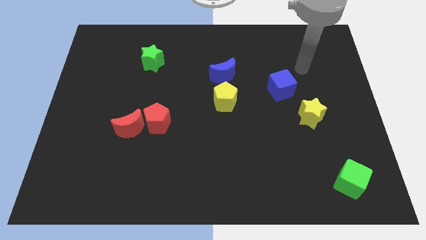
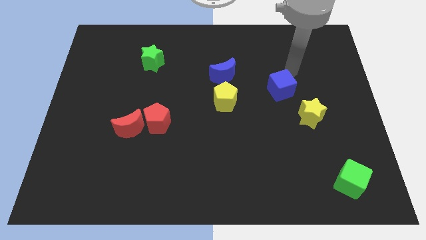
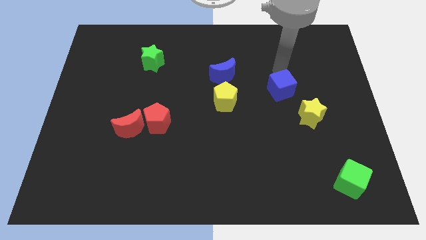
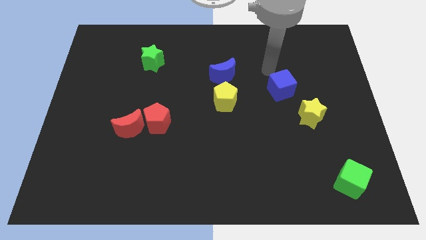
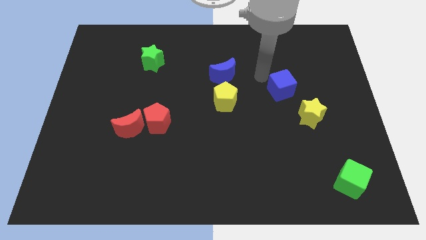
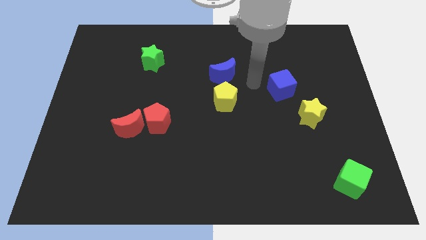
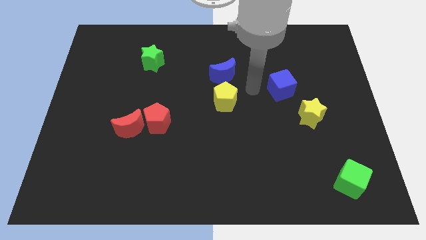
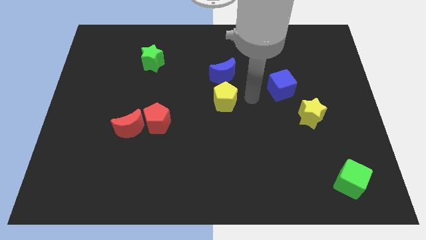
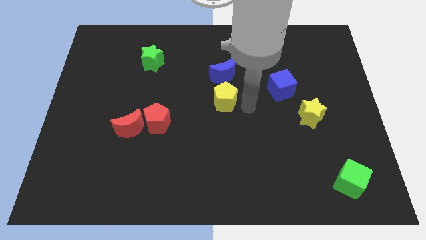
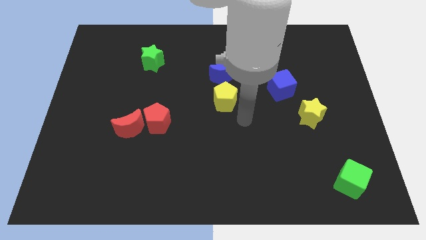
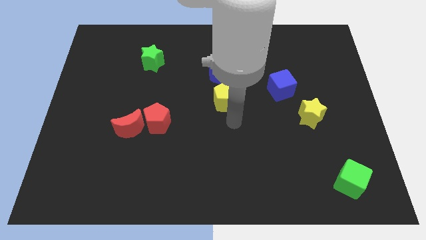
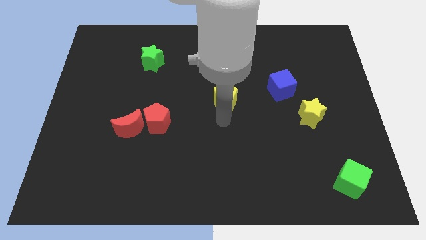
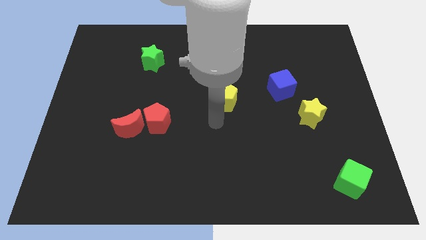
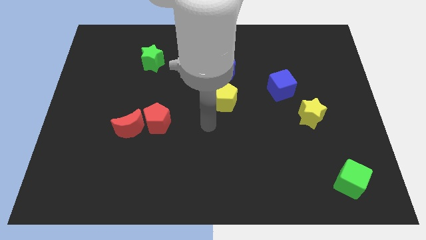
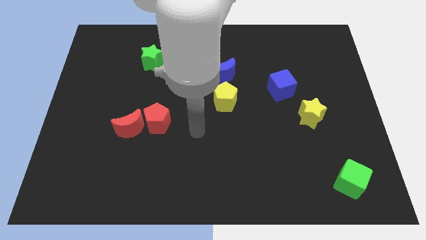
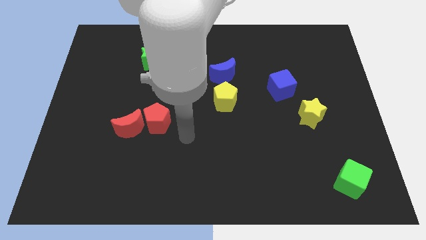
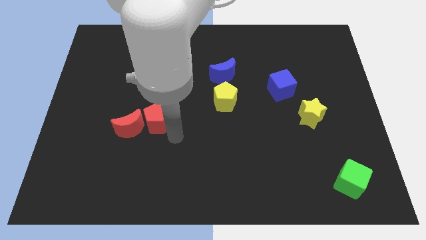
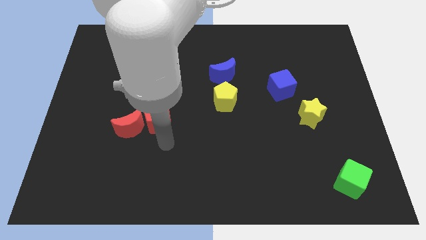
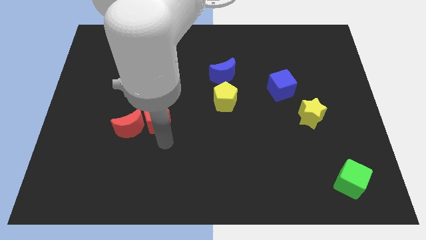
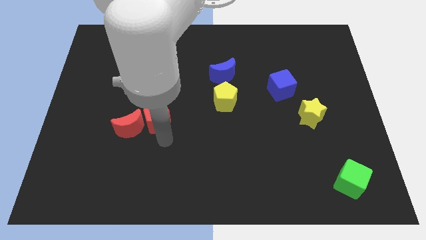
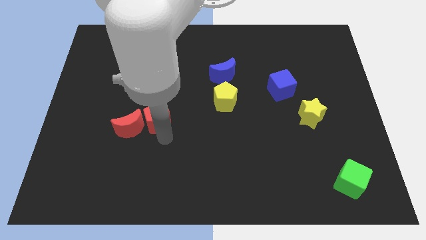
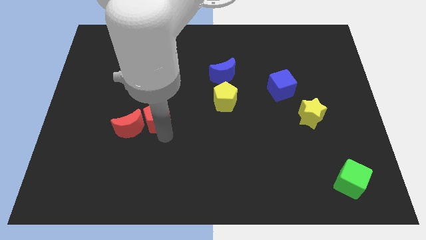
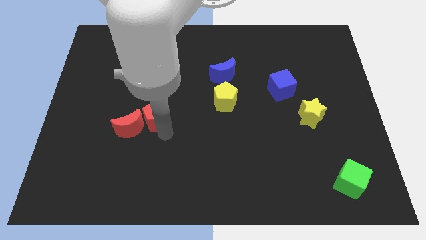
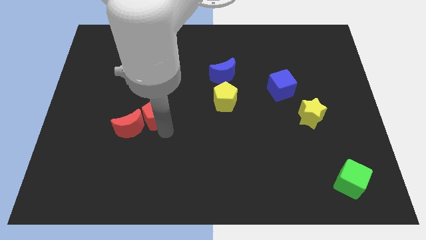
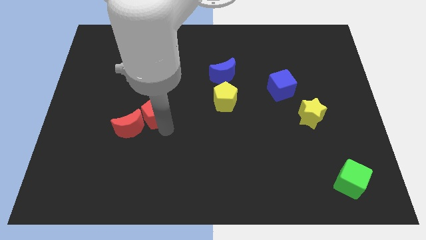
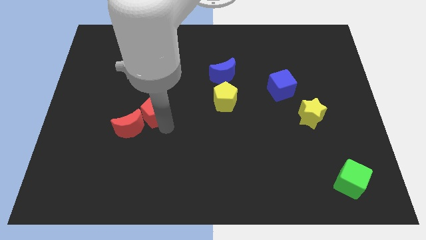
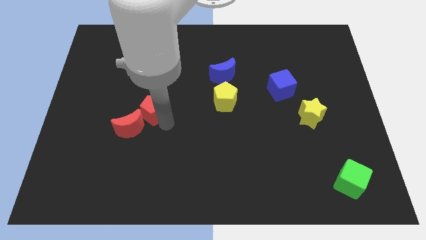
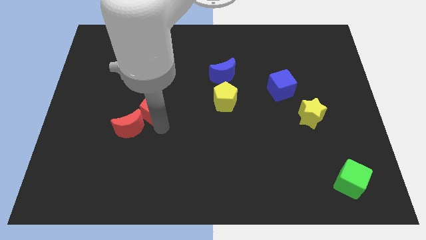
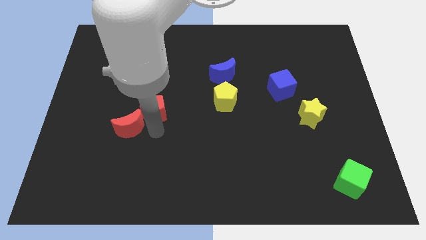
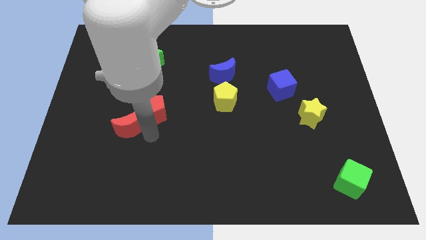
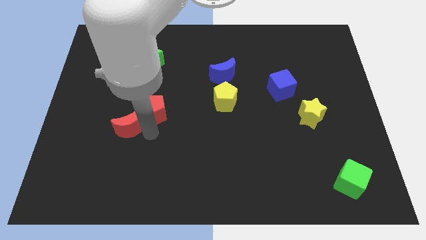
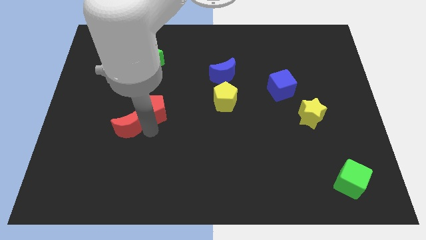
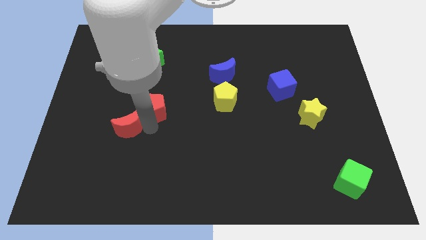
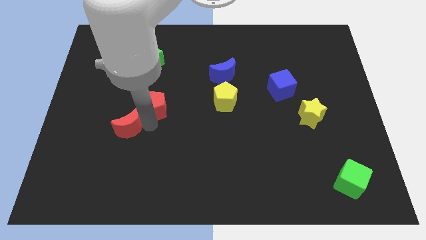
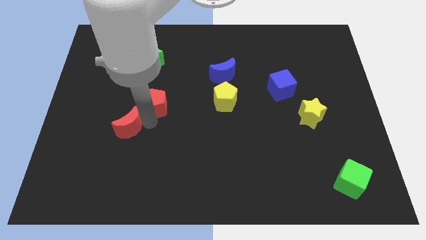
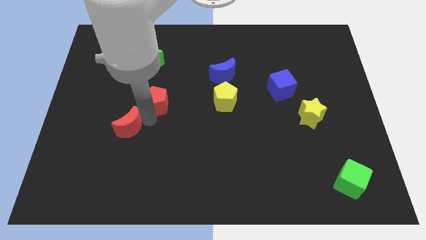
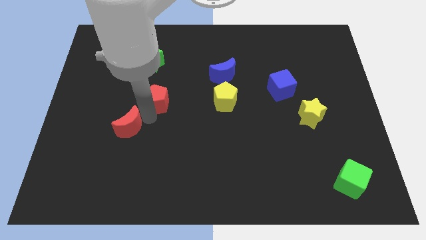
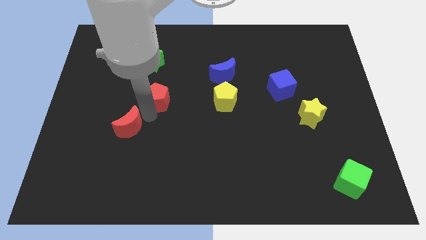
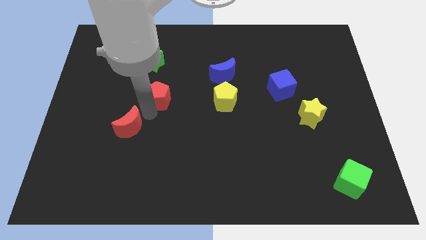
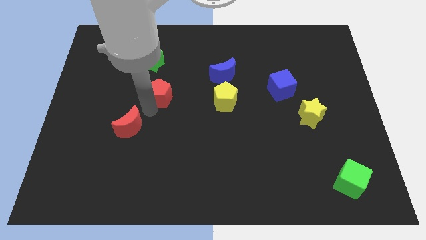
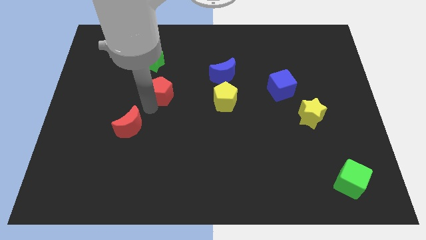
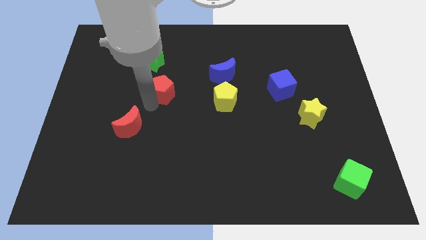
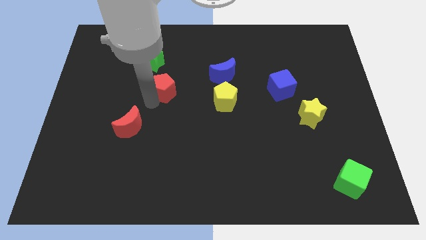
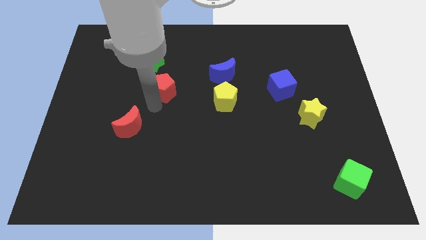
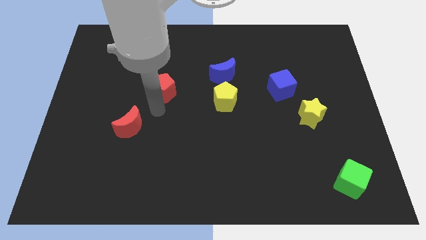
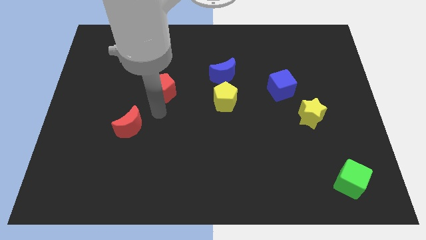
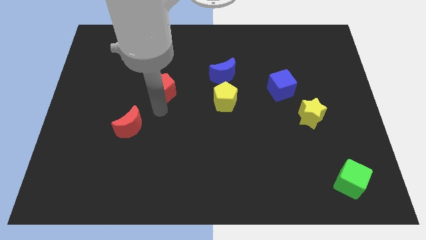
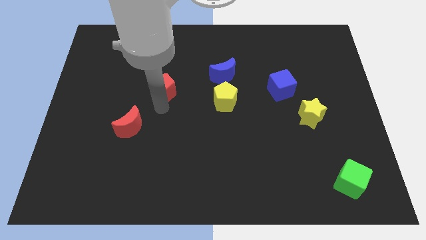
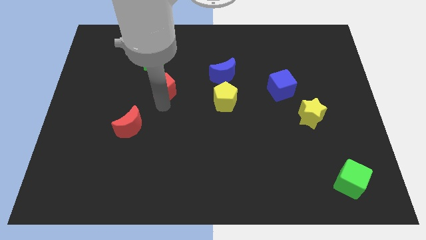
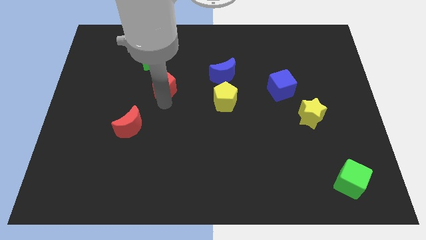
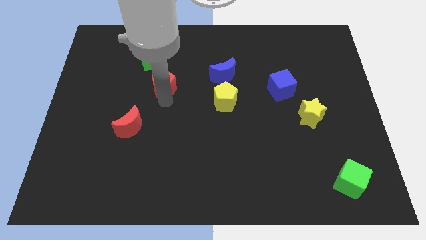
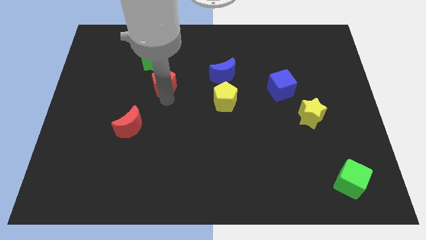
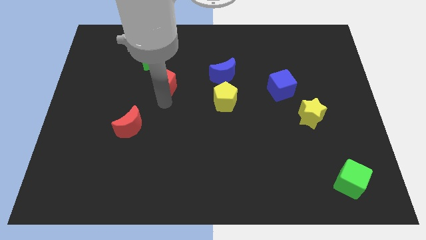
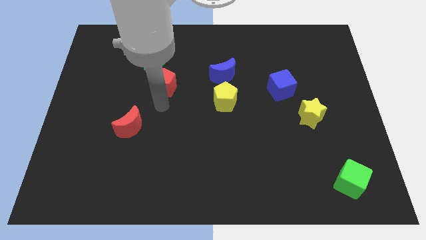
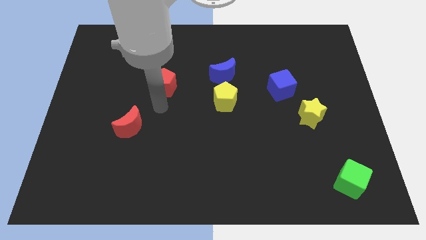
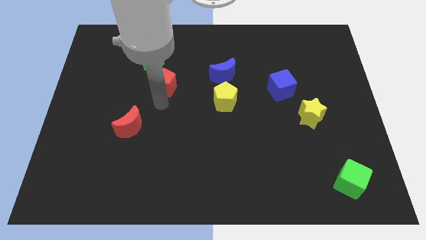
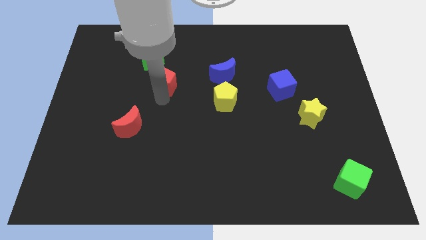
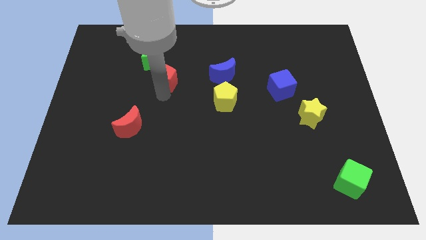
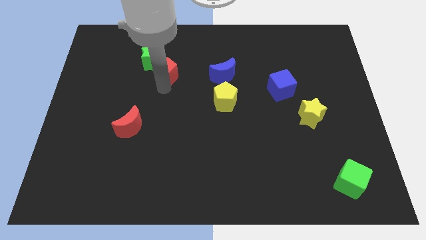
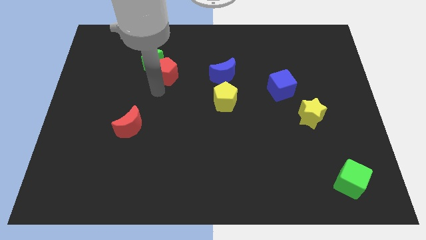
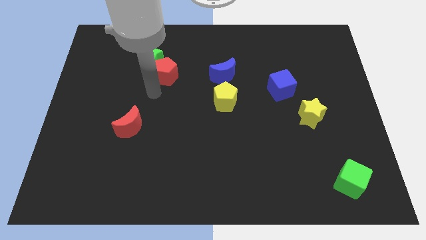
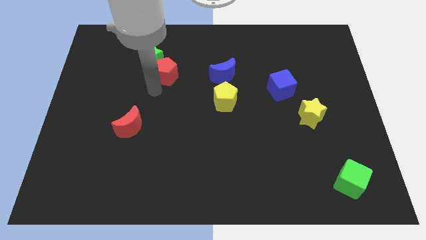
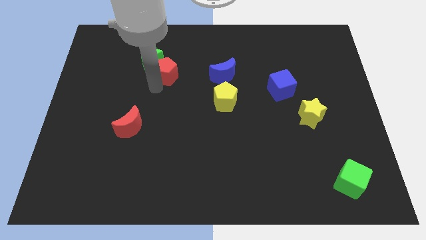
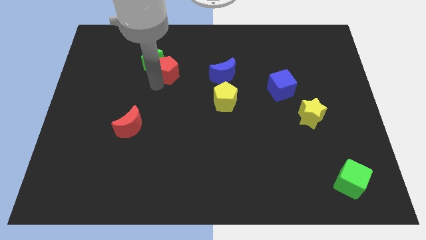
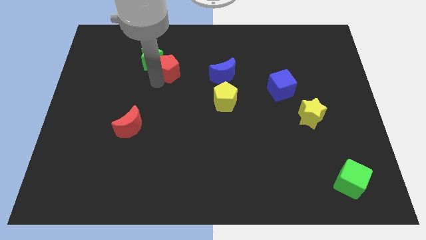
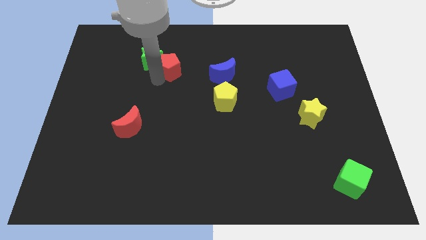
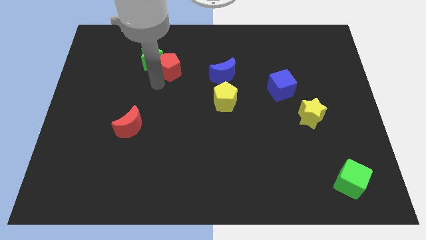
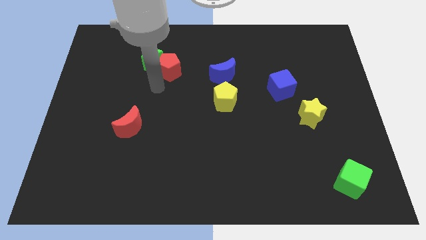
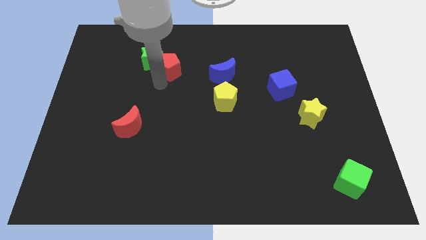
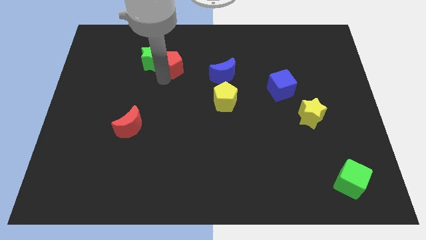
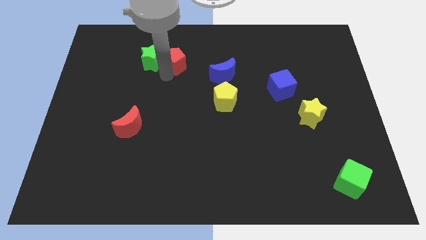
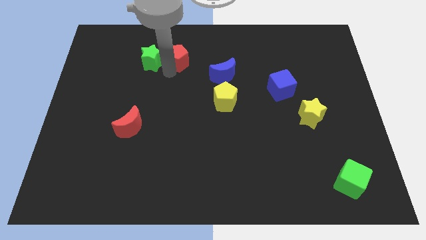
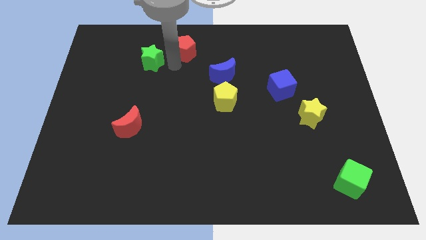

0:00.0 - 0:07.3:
push the red pentagon to the top side
